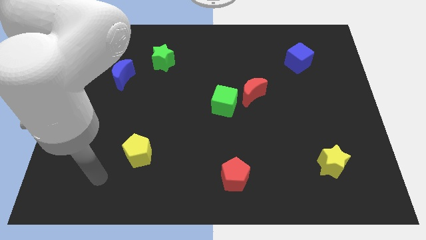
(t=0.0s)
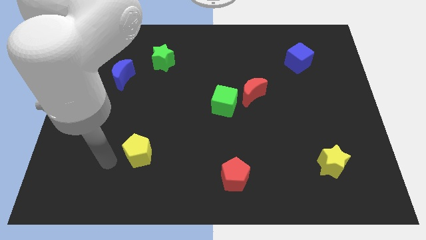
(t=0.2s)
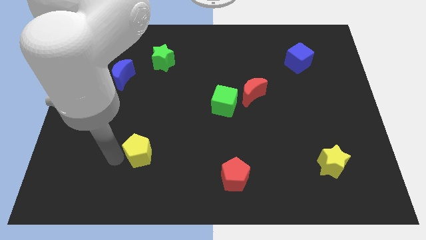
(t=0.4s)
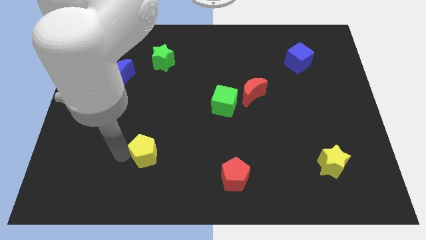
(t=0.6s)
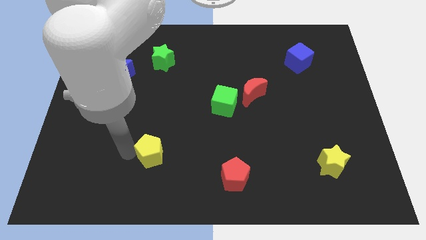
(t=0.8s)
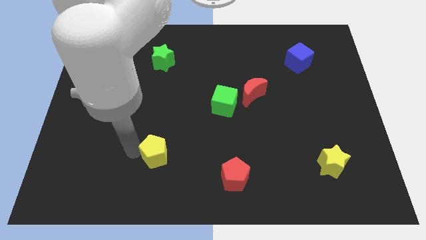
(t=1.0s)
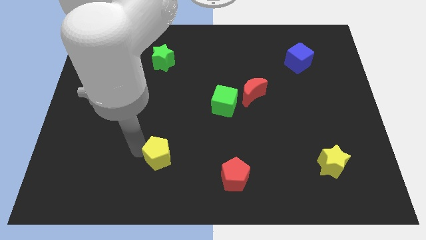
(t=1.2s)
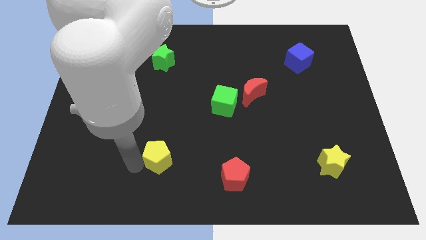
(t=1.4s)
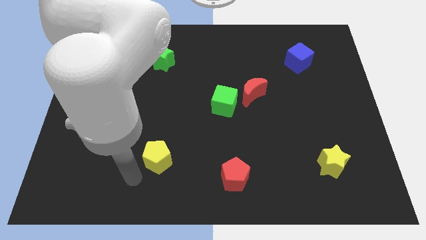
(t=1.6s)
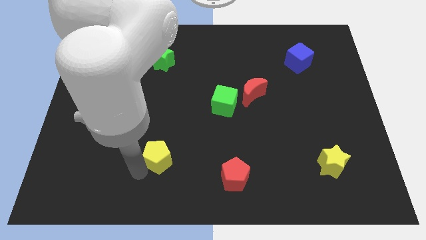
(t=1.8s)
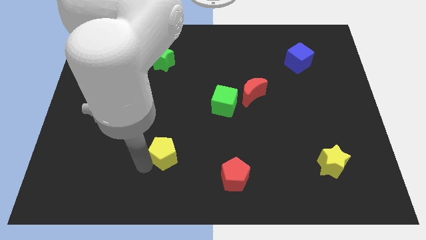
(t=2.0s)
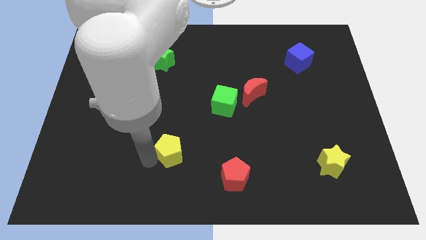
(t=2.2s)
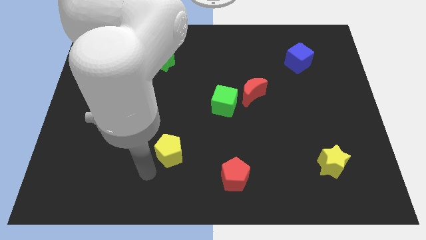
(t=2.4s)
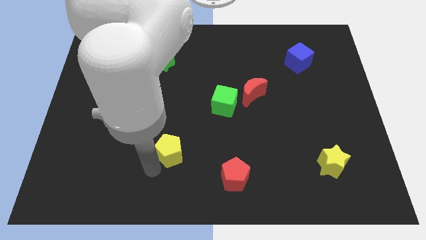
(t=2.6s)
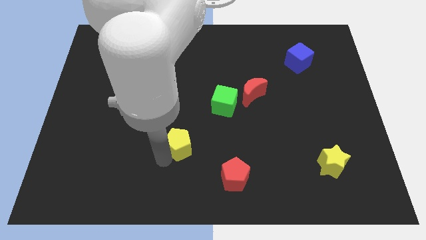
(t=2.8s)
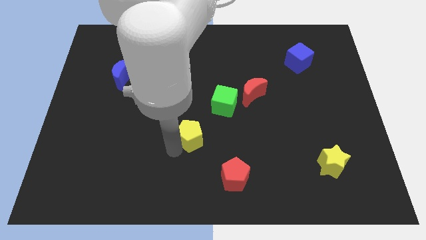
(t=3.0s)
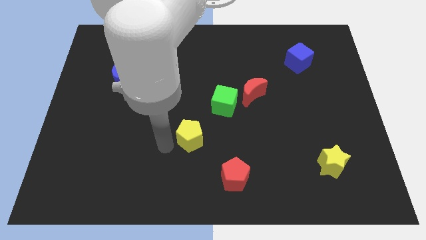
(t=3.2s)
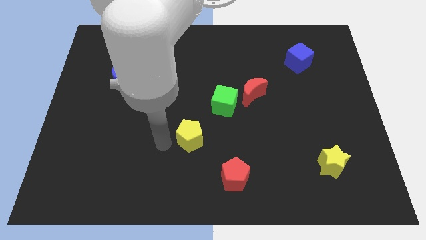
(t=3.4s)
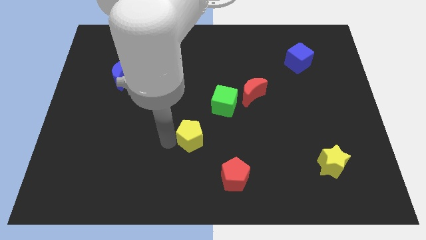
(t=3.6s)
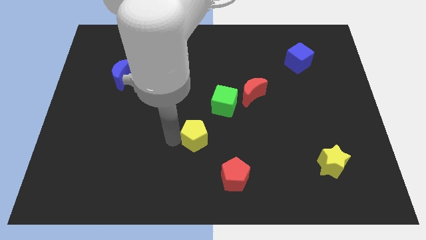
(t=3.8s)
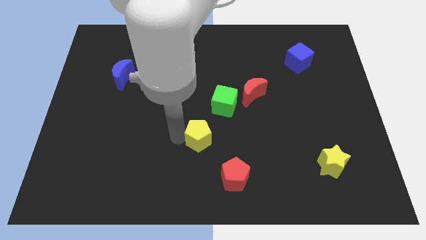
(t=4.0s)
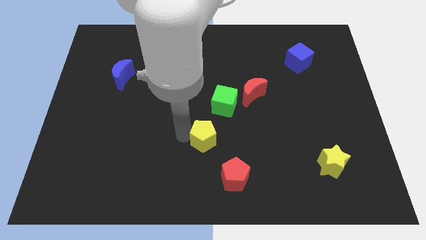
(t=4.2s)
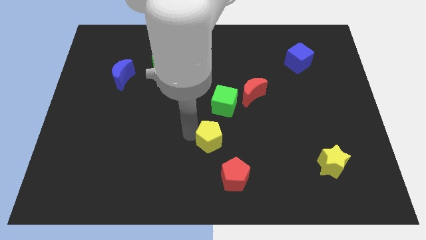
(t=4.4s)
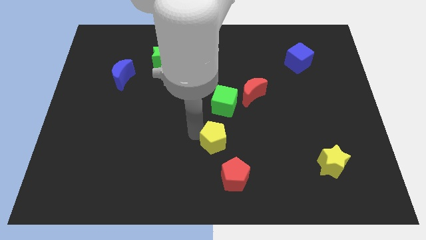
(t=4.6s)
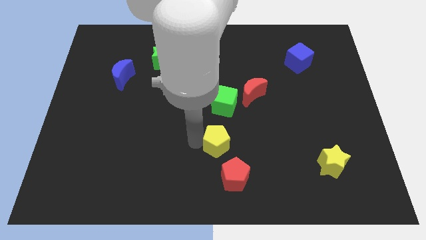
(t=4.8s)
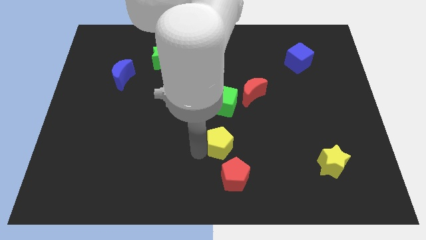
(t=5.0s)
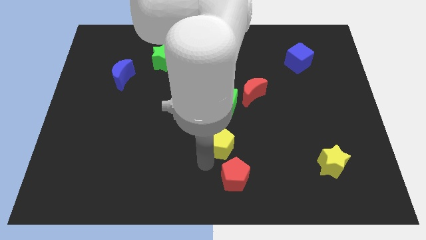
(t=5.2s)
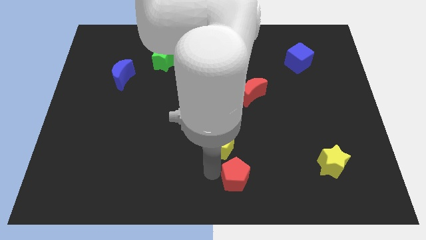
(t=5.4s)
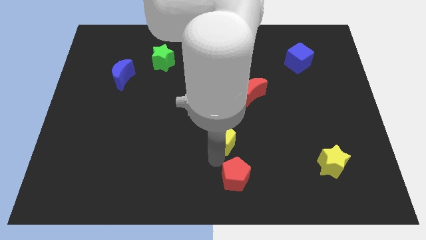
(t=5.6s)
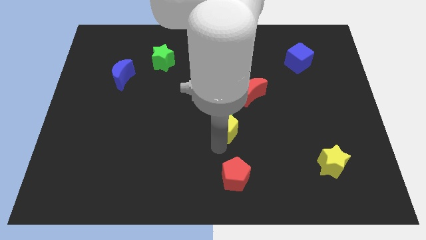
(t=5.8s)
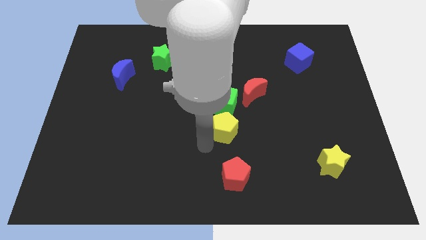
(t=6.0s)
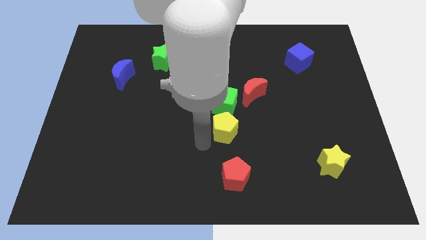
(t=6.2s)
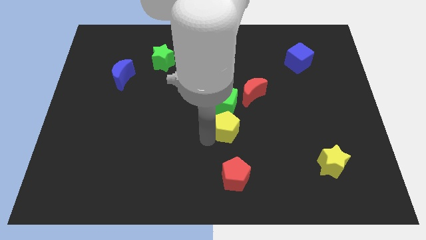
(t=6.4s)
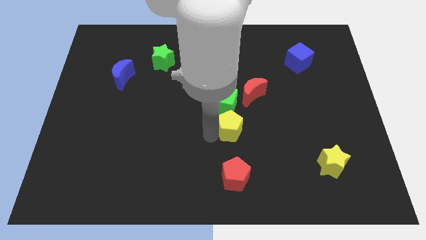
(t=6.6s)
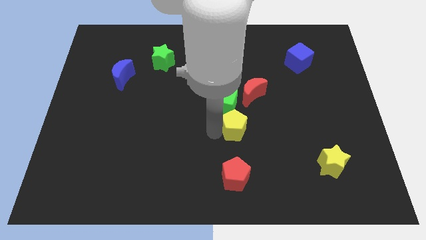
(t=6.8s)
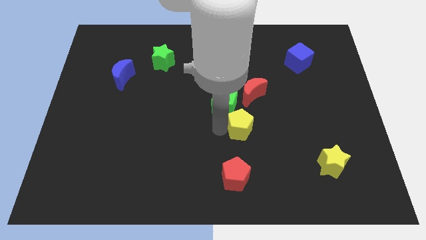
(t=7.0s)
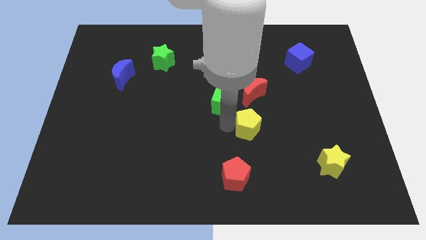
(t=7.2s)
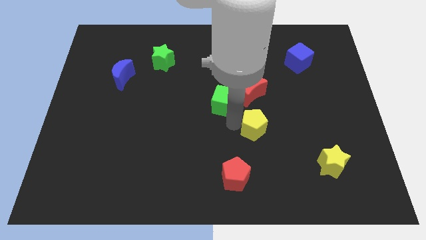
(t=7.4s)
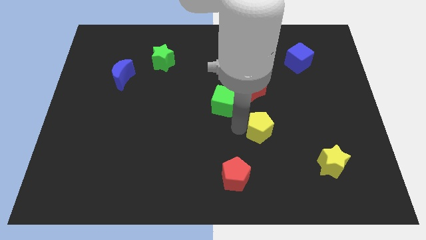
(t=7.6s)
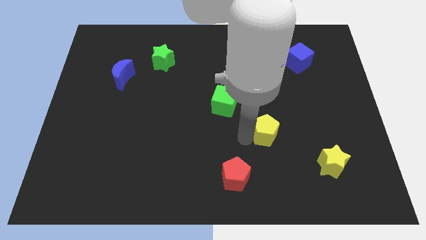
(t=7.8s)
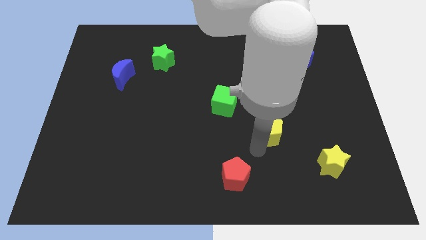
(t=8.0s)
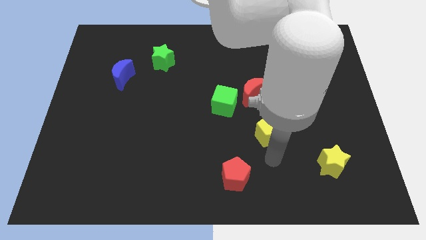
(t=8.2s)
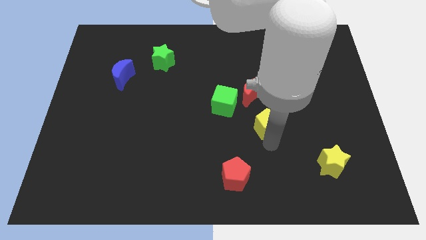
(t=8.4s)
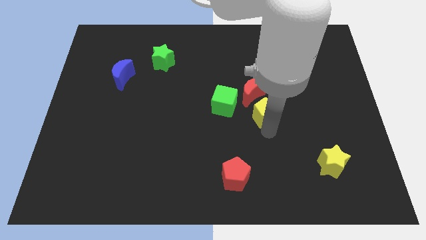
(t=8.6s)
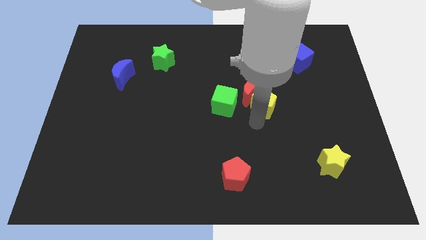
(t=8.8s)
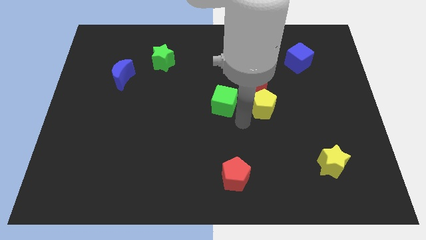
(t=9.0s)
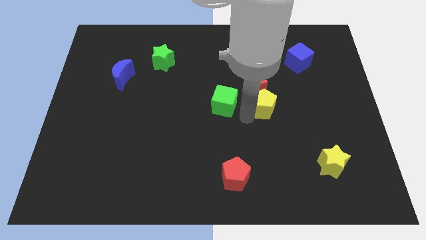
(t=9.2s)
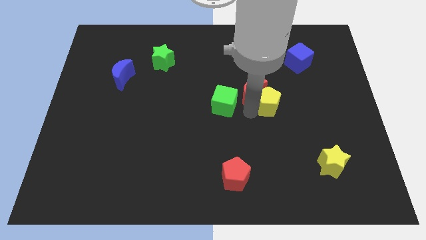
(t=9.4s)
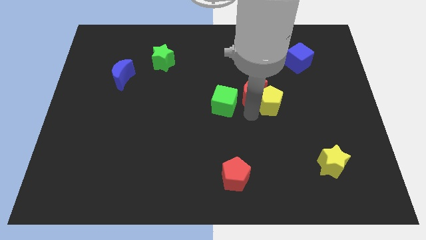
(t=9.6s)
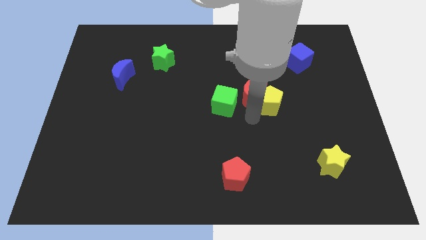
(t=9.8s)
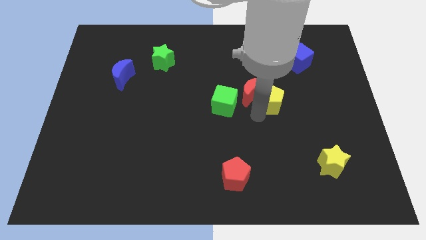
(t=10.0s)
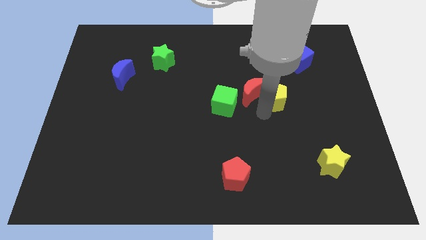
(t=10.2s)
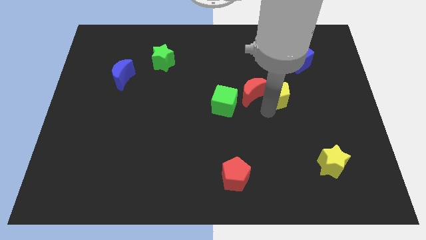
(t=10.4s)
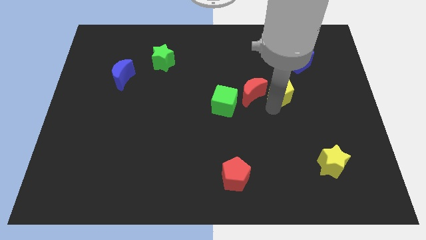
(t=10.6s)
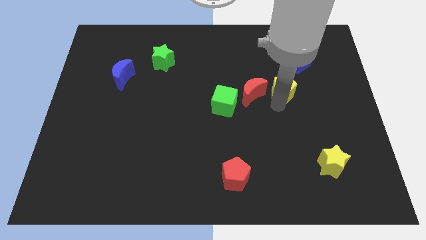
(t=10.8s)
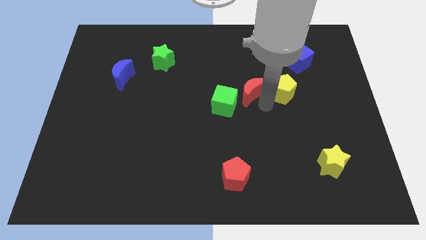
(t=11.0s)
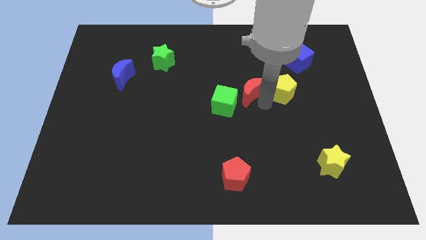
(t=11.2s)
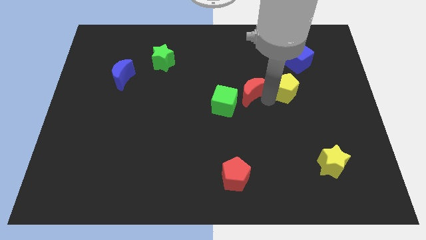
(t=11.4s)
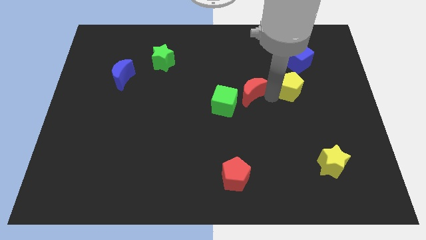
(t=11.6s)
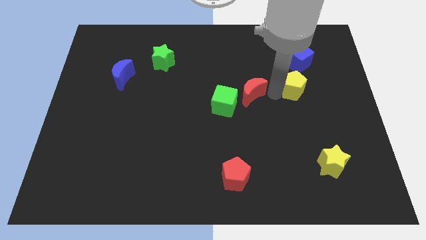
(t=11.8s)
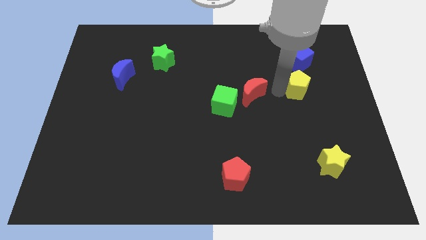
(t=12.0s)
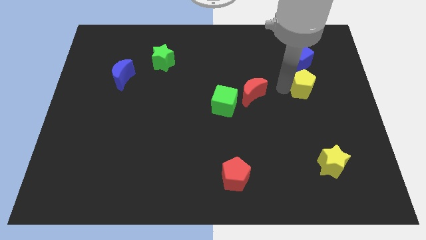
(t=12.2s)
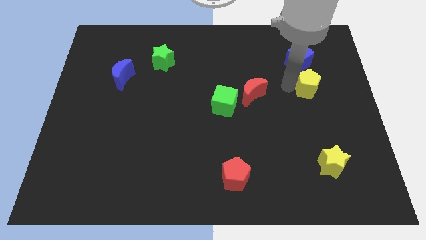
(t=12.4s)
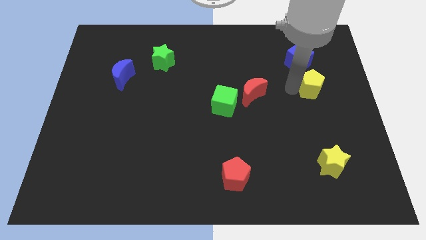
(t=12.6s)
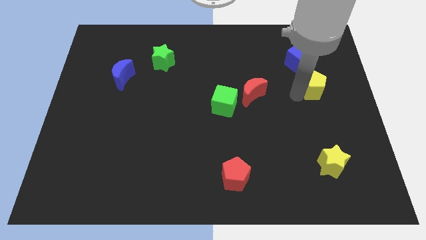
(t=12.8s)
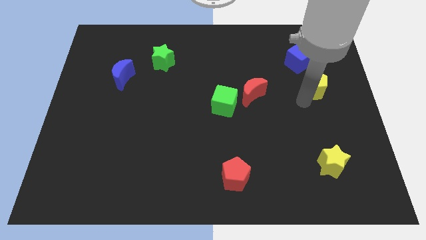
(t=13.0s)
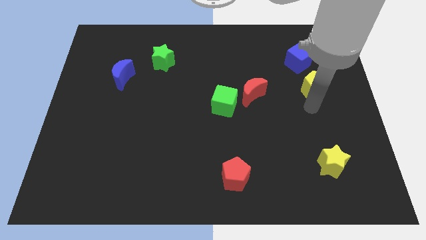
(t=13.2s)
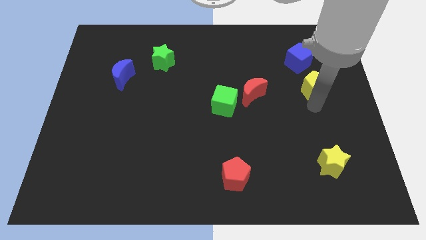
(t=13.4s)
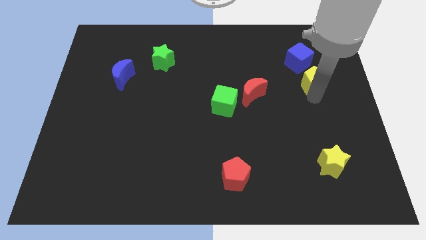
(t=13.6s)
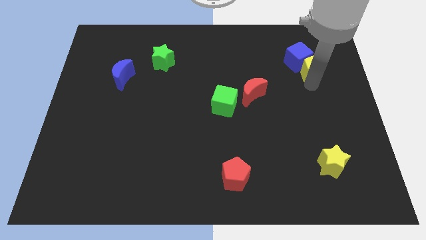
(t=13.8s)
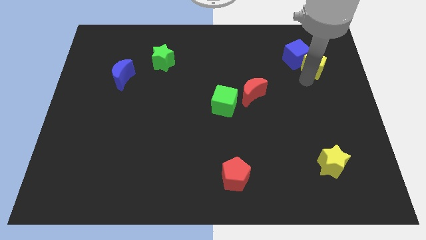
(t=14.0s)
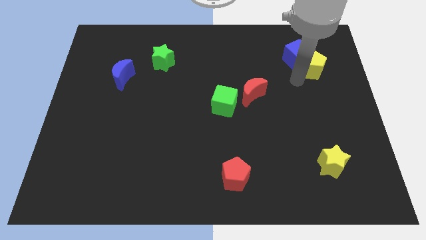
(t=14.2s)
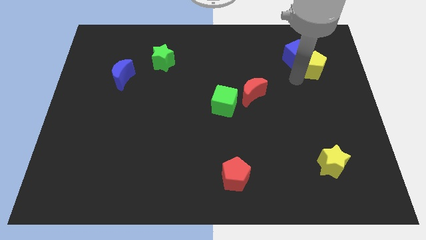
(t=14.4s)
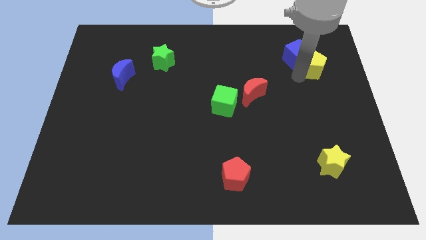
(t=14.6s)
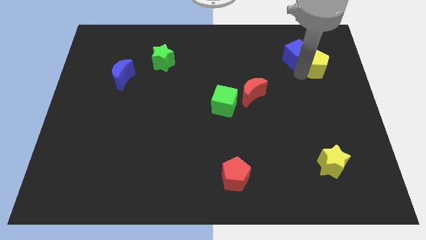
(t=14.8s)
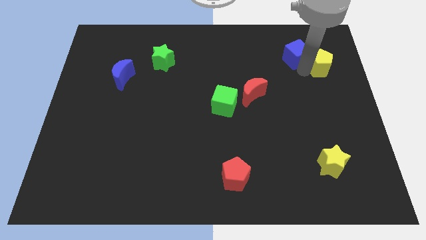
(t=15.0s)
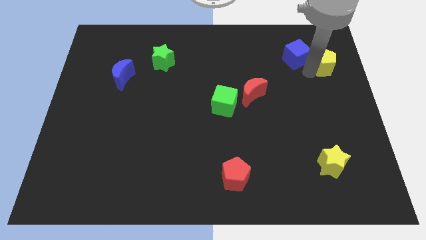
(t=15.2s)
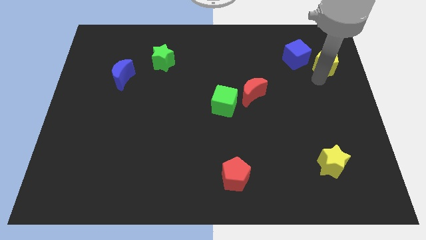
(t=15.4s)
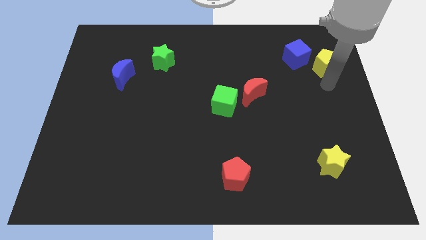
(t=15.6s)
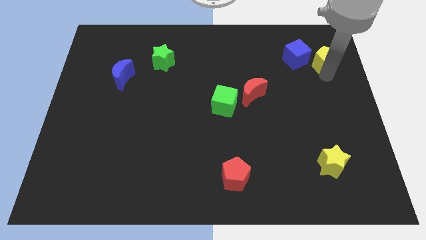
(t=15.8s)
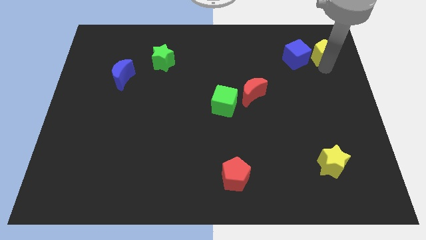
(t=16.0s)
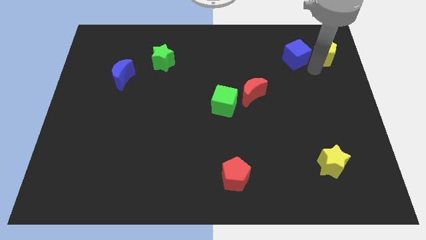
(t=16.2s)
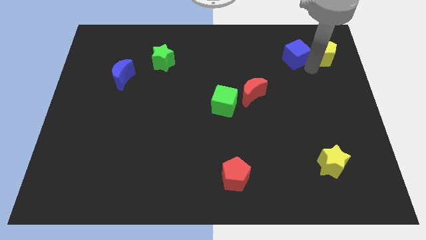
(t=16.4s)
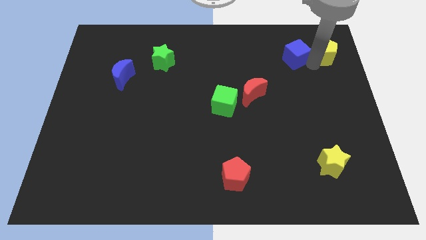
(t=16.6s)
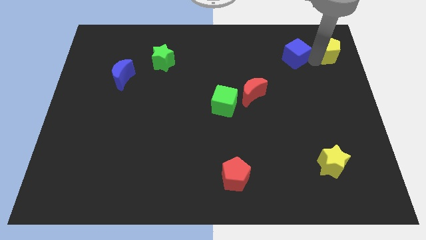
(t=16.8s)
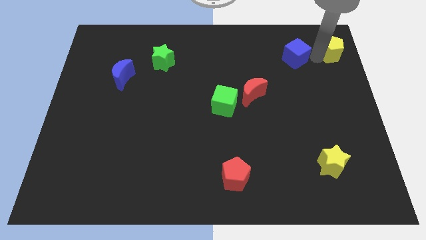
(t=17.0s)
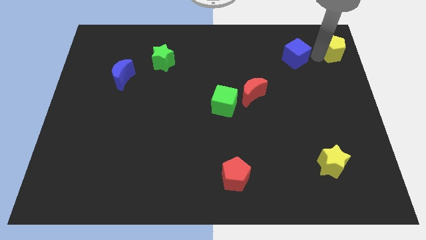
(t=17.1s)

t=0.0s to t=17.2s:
push the yellow pentagon to the top right of the board
